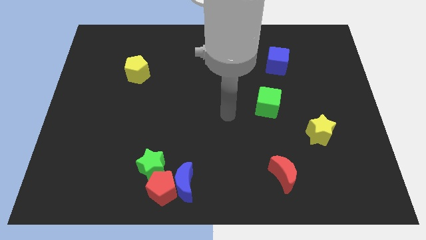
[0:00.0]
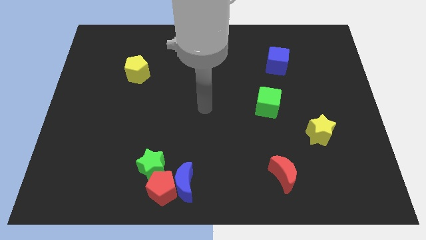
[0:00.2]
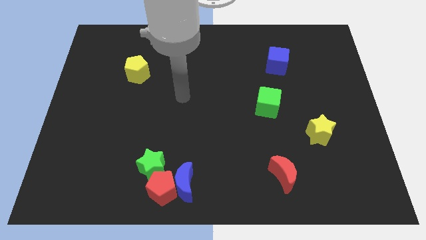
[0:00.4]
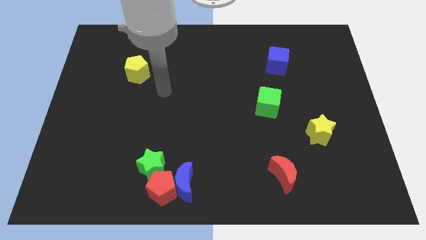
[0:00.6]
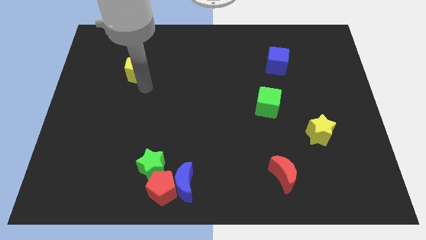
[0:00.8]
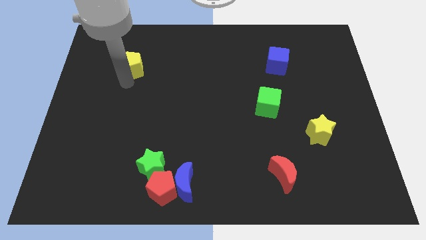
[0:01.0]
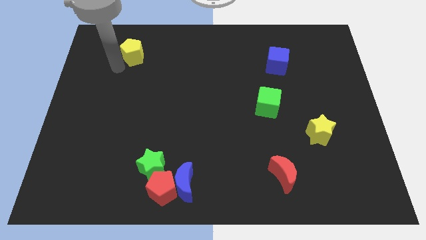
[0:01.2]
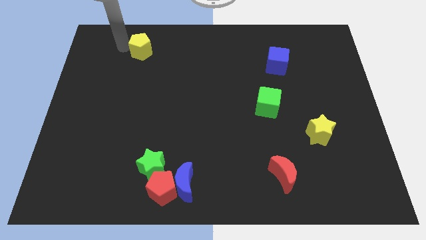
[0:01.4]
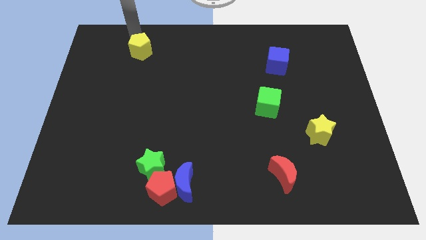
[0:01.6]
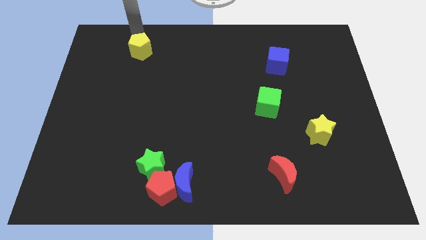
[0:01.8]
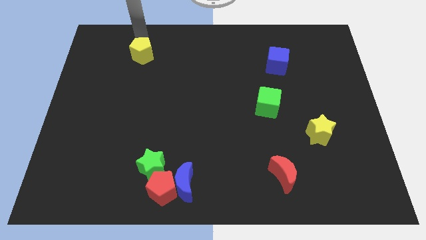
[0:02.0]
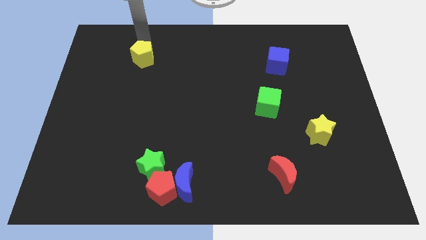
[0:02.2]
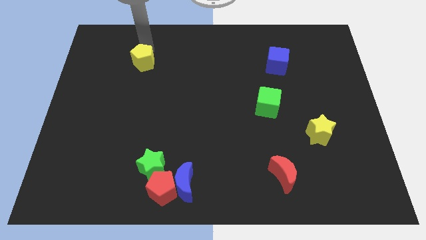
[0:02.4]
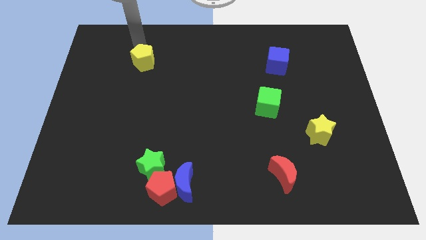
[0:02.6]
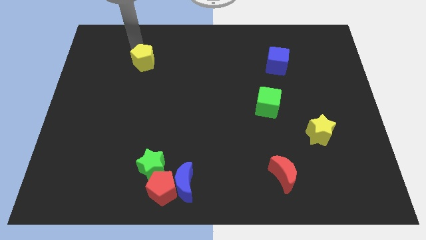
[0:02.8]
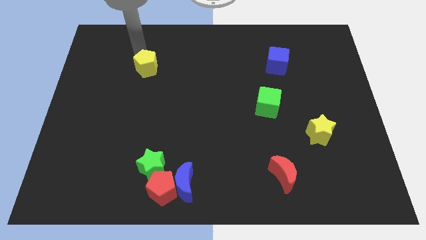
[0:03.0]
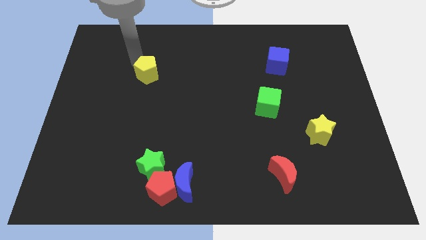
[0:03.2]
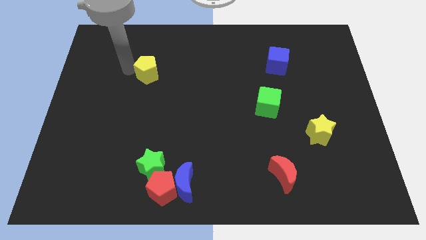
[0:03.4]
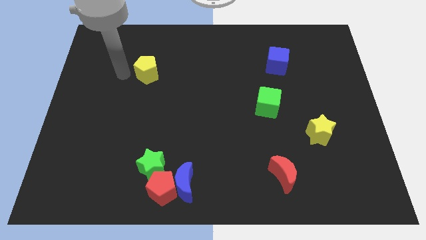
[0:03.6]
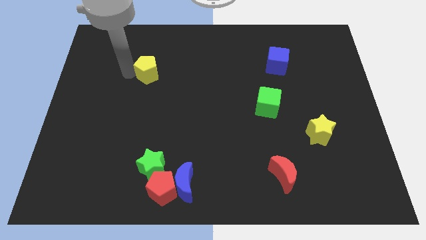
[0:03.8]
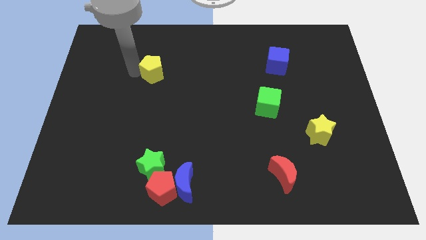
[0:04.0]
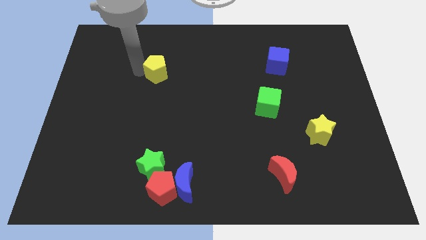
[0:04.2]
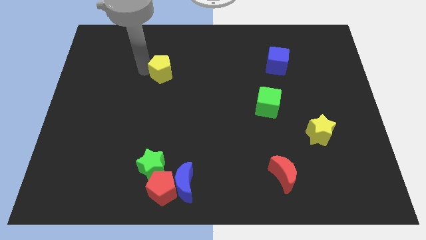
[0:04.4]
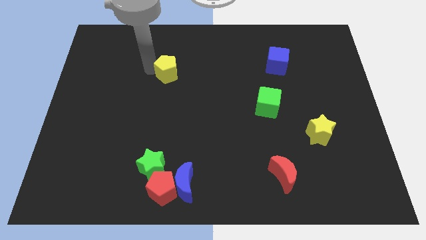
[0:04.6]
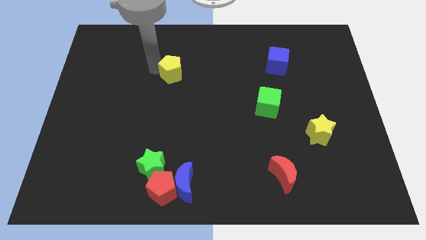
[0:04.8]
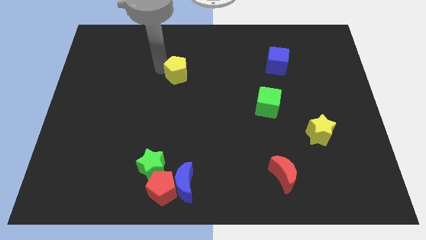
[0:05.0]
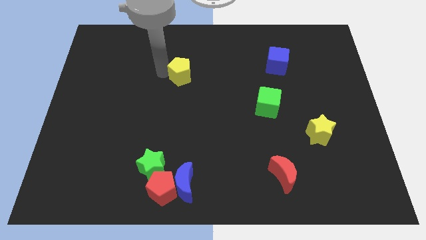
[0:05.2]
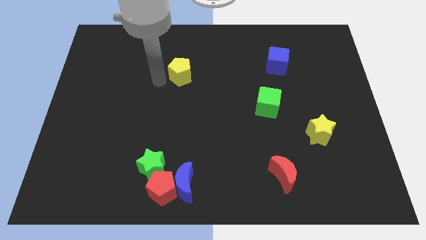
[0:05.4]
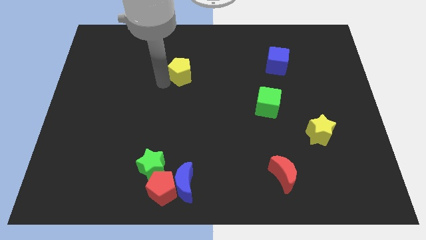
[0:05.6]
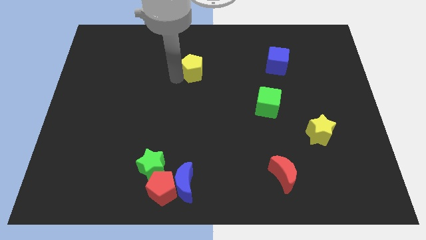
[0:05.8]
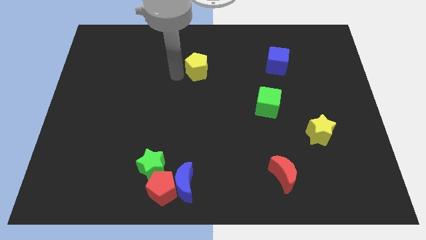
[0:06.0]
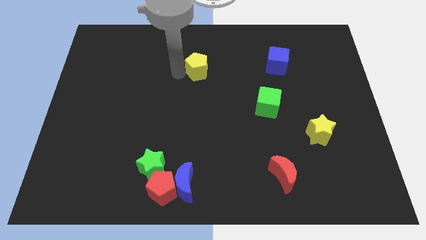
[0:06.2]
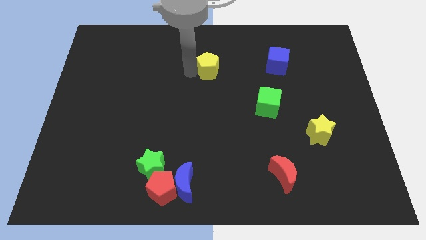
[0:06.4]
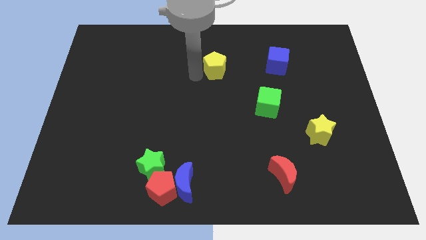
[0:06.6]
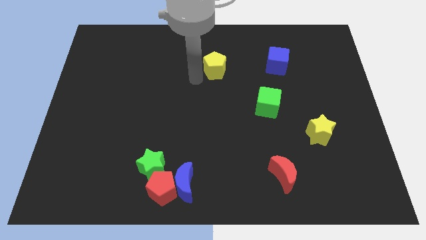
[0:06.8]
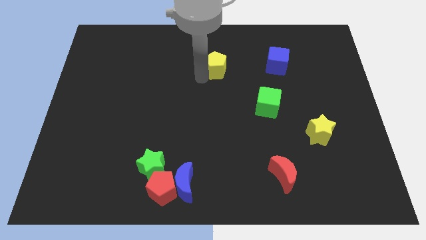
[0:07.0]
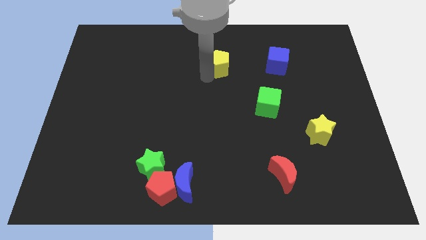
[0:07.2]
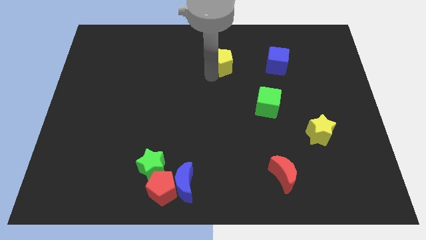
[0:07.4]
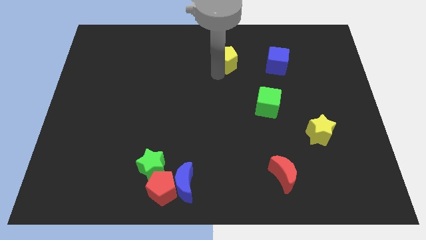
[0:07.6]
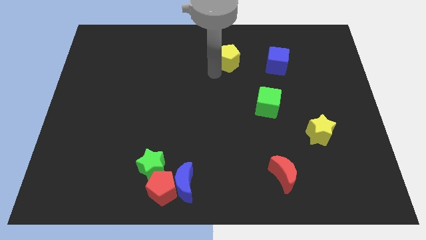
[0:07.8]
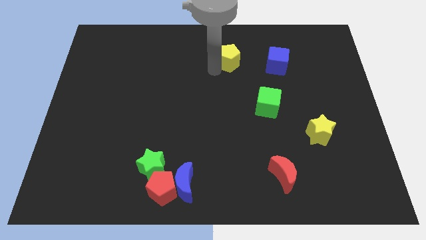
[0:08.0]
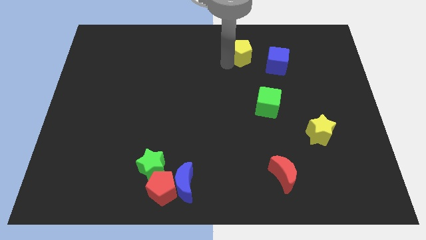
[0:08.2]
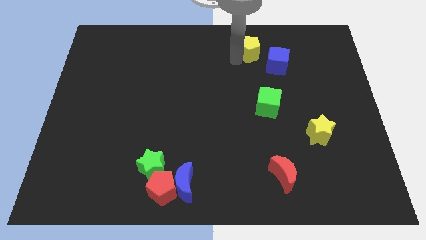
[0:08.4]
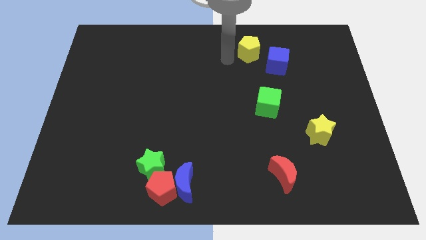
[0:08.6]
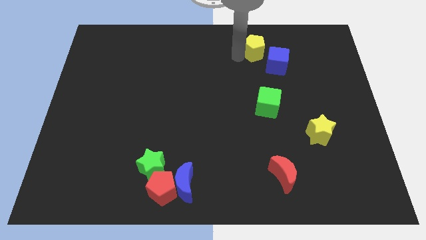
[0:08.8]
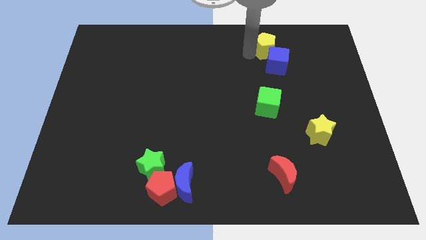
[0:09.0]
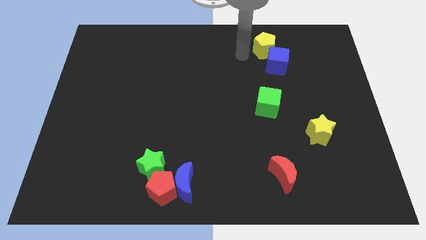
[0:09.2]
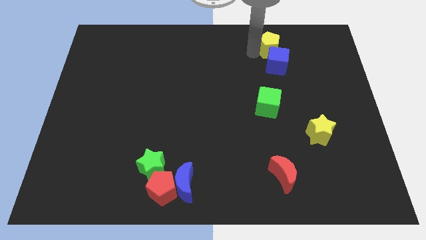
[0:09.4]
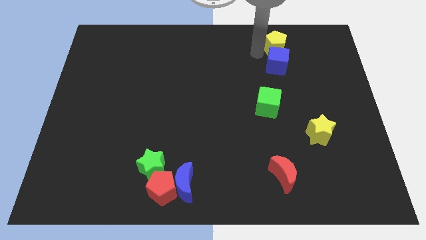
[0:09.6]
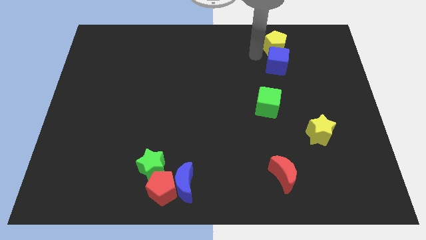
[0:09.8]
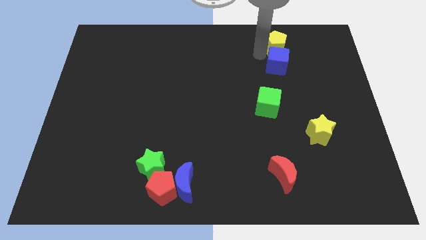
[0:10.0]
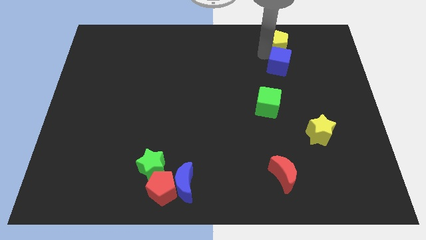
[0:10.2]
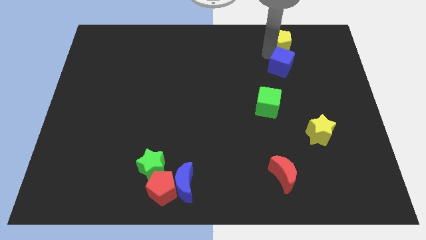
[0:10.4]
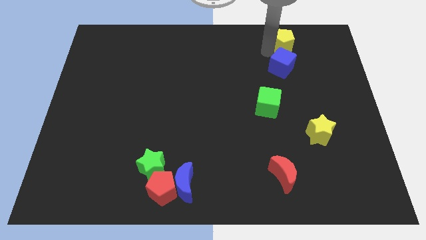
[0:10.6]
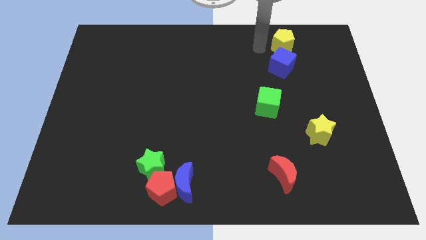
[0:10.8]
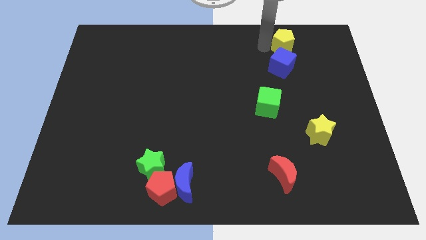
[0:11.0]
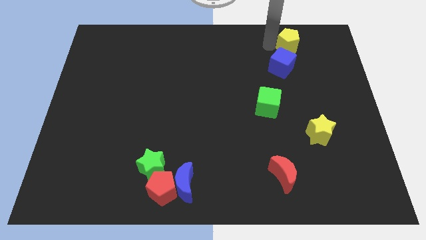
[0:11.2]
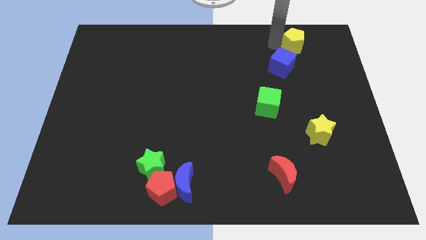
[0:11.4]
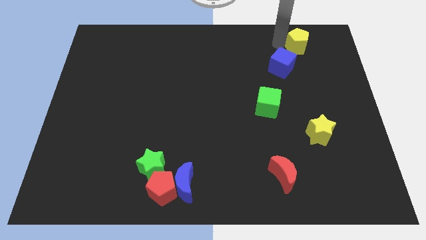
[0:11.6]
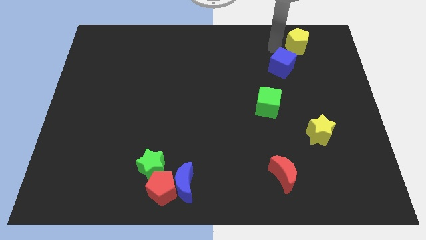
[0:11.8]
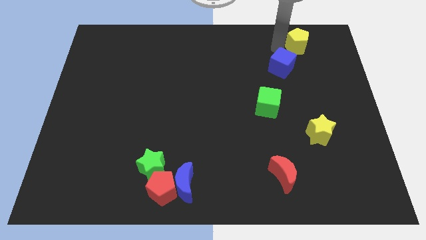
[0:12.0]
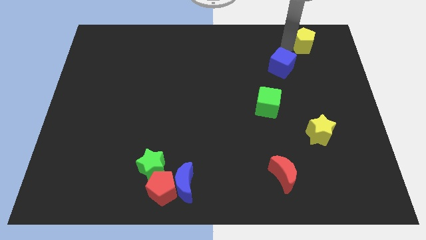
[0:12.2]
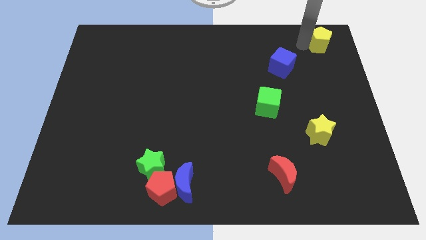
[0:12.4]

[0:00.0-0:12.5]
move the yellow pentagon to the top right
